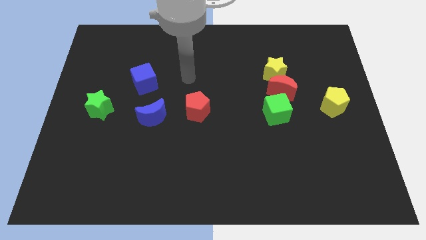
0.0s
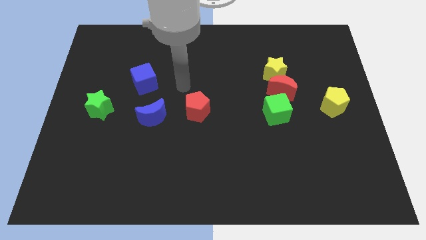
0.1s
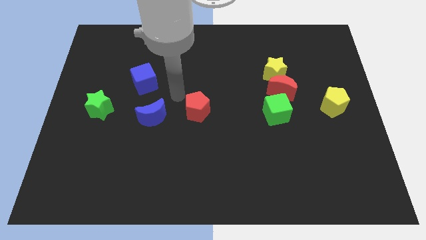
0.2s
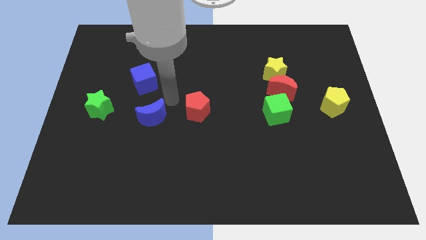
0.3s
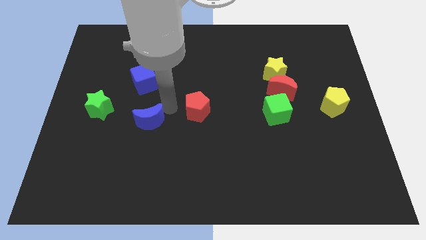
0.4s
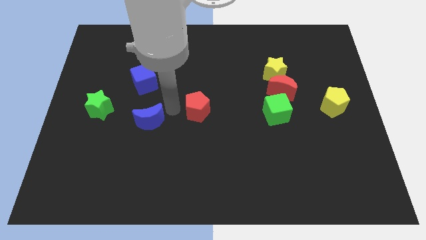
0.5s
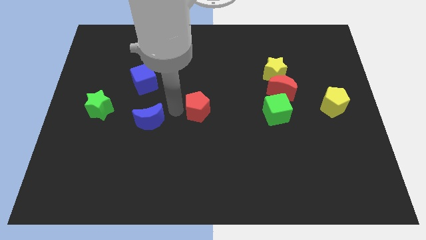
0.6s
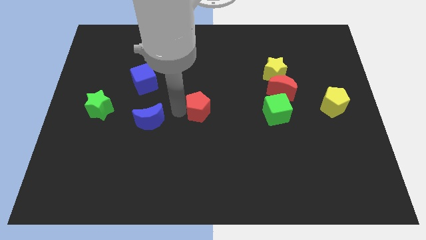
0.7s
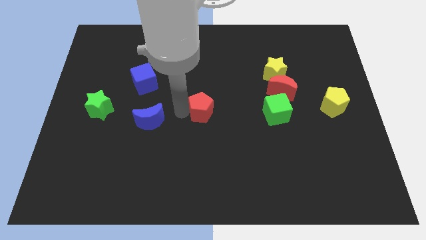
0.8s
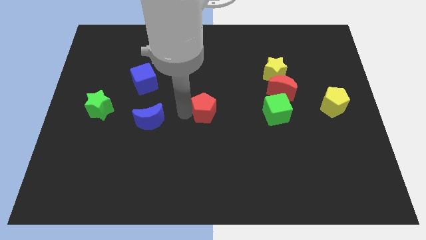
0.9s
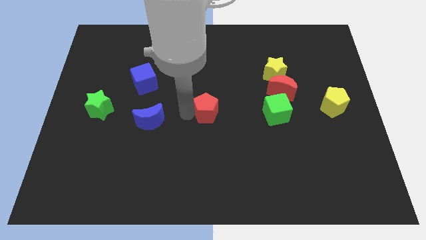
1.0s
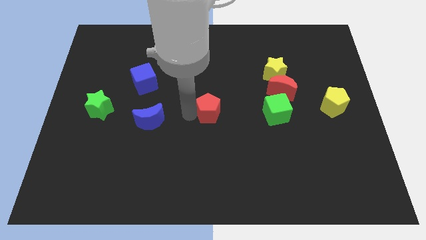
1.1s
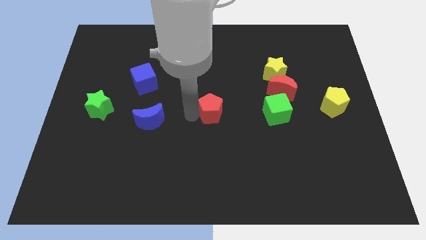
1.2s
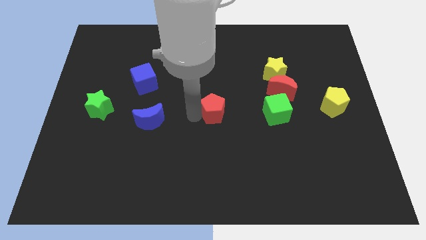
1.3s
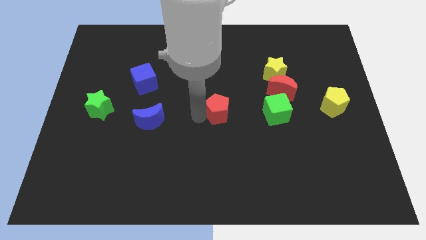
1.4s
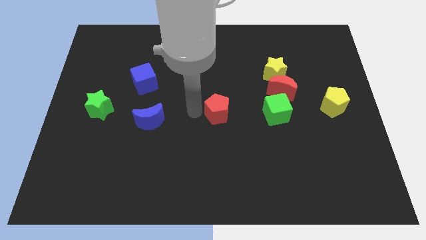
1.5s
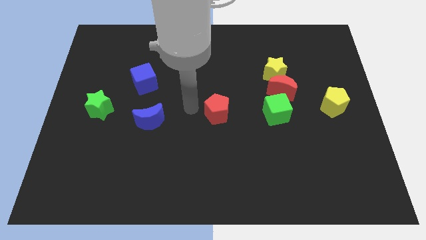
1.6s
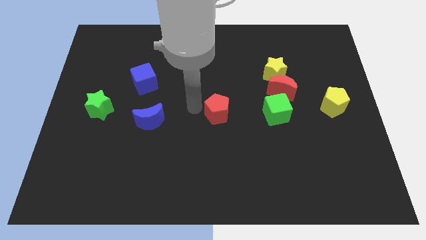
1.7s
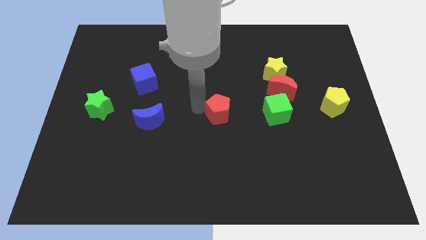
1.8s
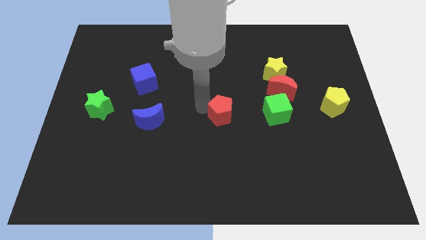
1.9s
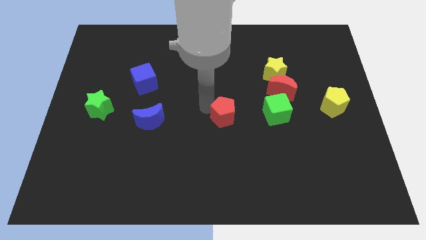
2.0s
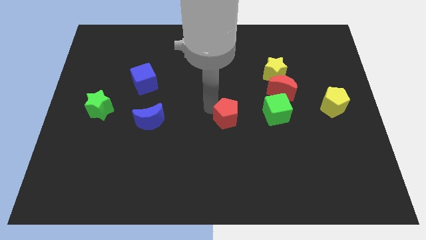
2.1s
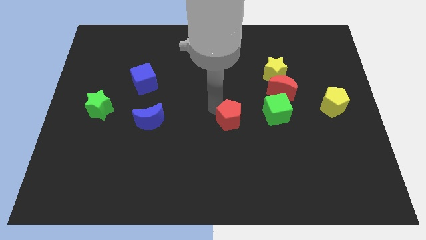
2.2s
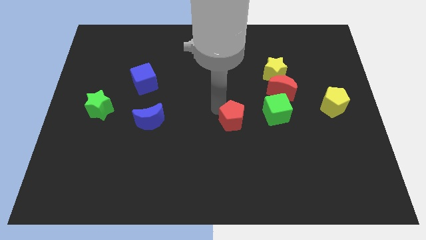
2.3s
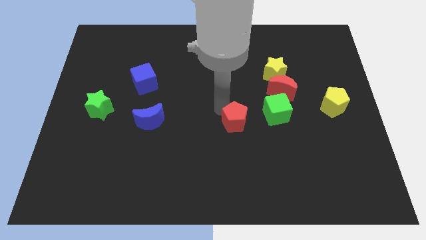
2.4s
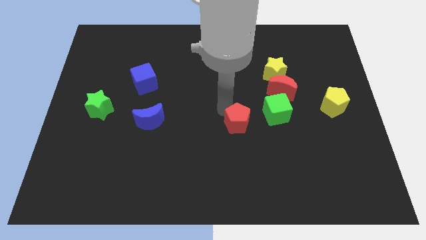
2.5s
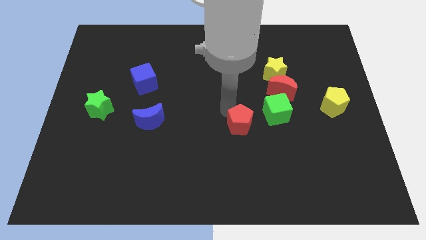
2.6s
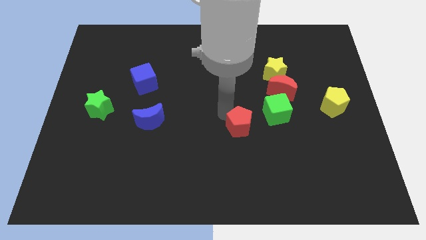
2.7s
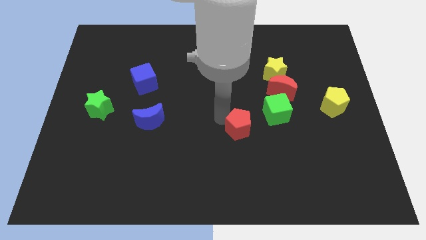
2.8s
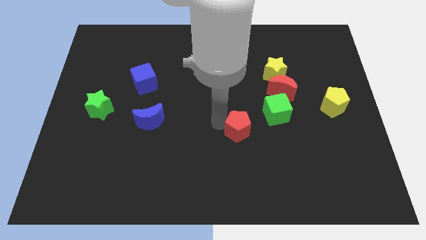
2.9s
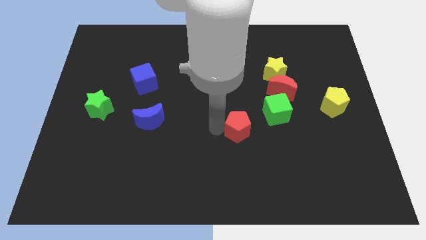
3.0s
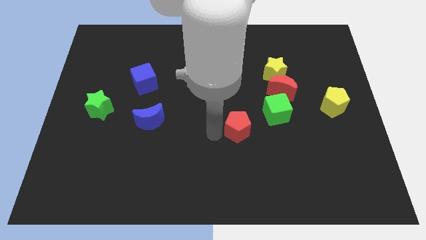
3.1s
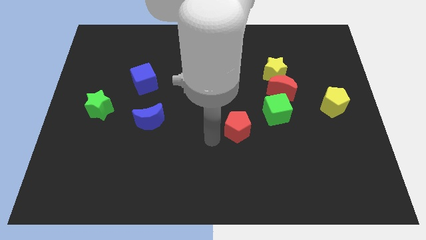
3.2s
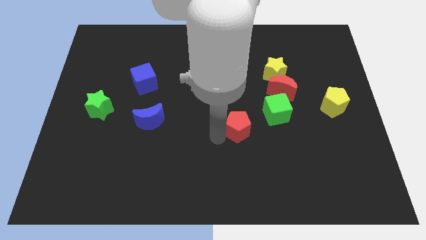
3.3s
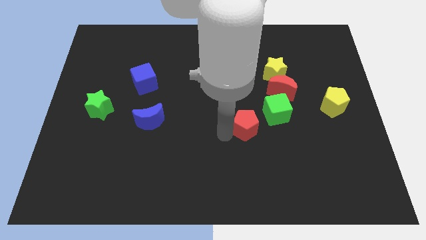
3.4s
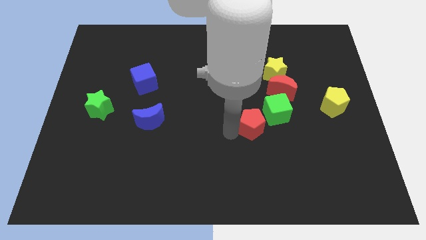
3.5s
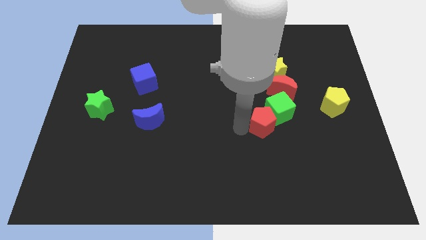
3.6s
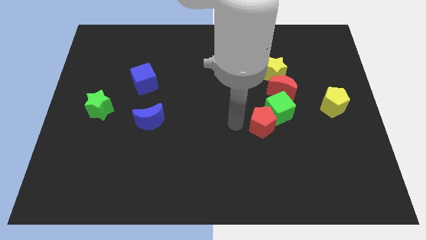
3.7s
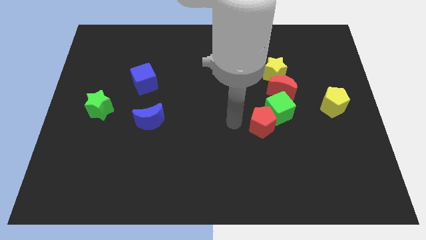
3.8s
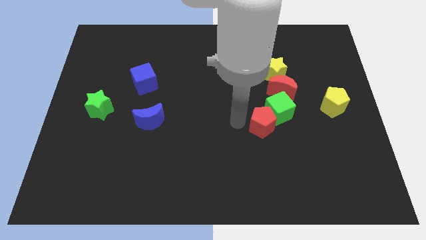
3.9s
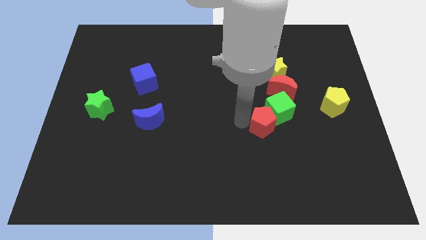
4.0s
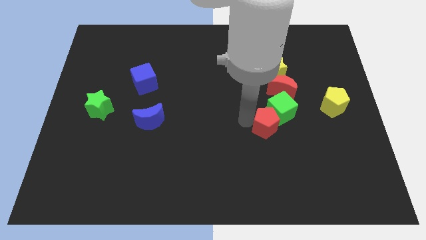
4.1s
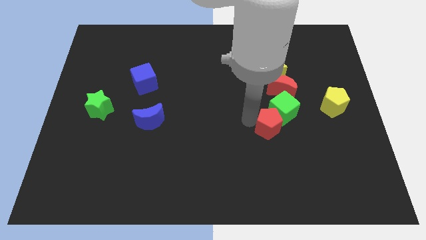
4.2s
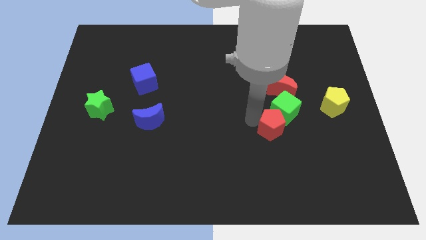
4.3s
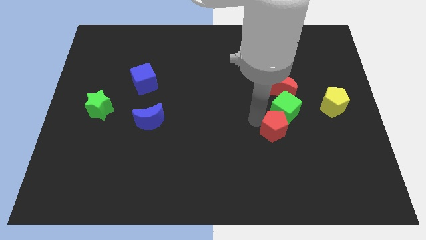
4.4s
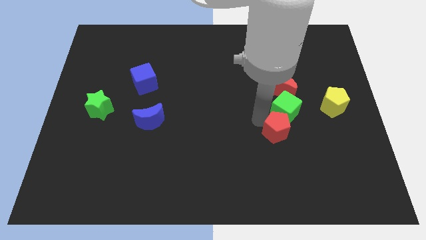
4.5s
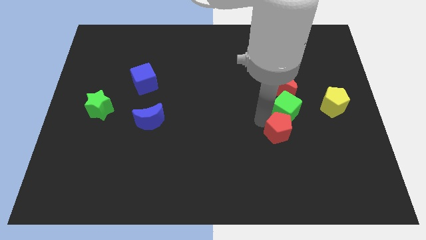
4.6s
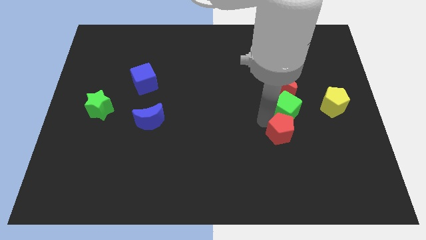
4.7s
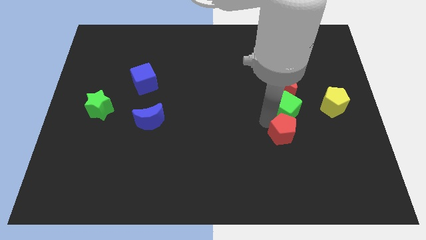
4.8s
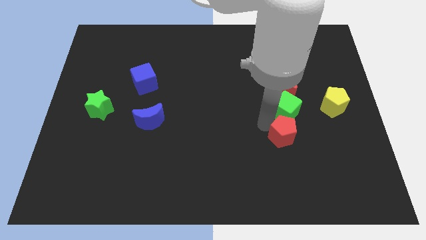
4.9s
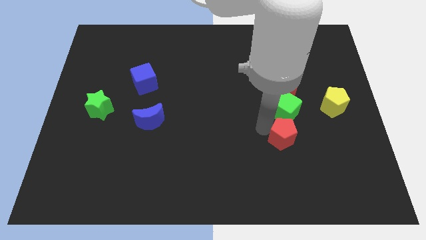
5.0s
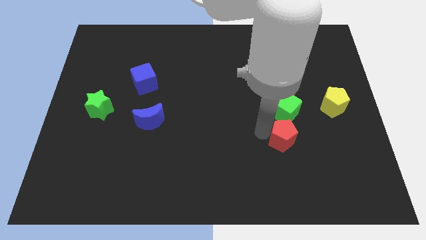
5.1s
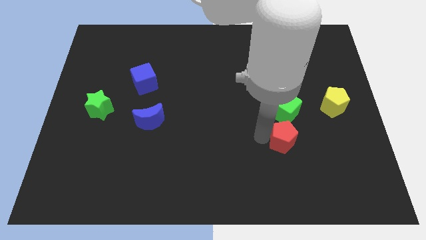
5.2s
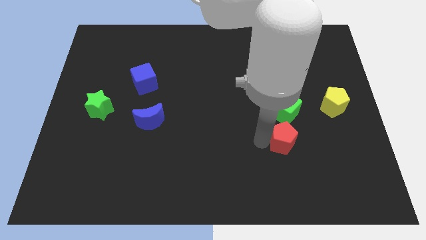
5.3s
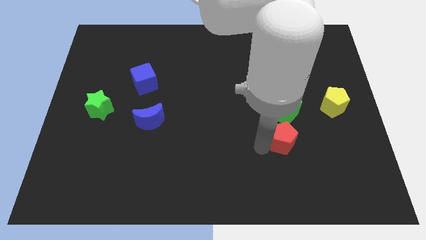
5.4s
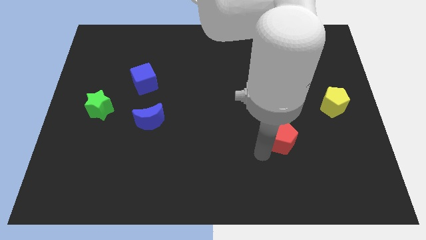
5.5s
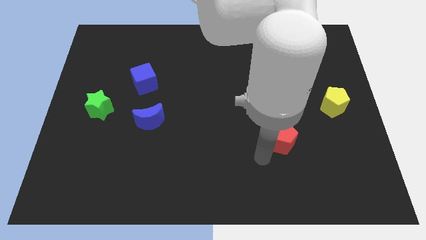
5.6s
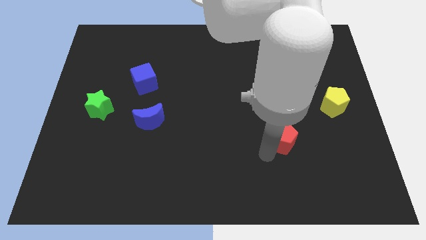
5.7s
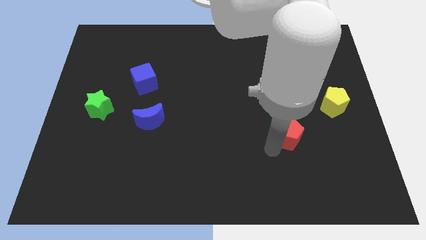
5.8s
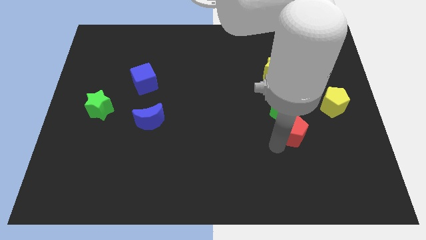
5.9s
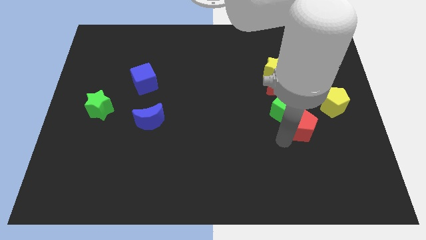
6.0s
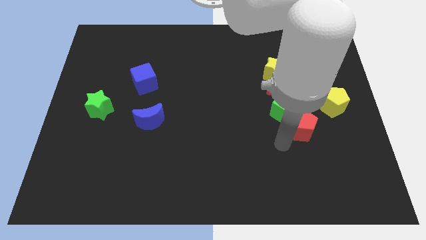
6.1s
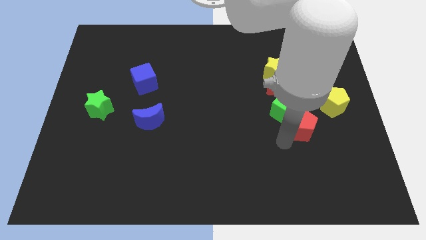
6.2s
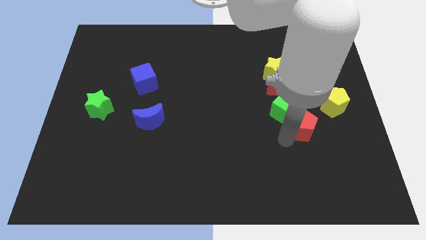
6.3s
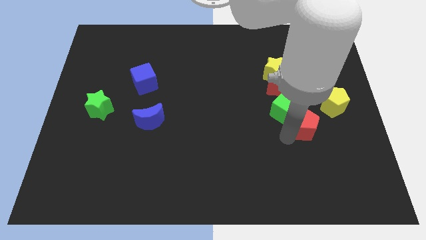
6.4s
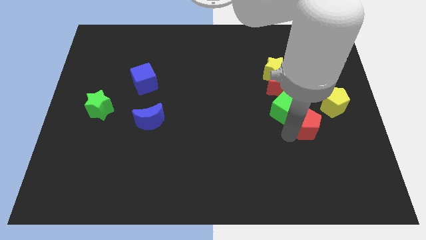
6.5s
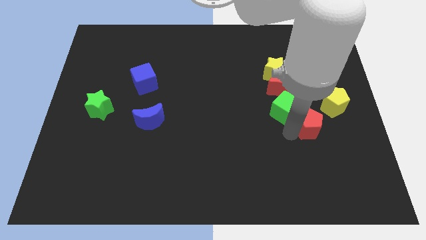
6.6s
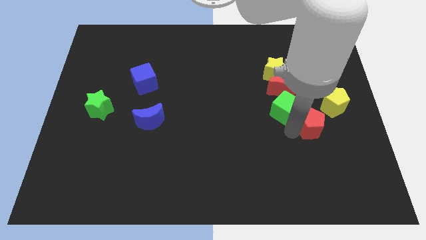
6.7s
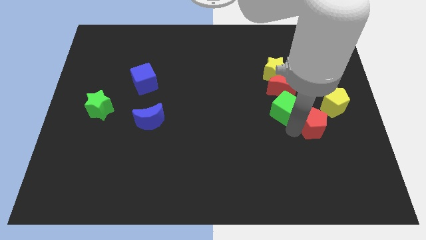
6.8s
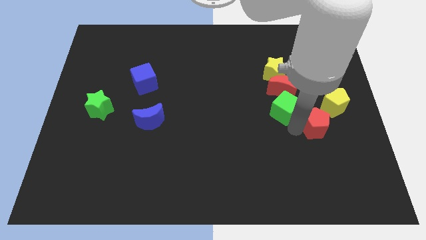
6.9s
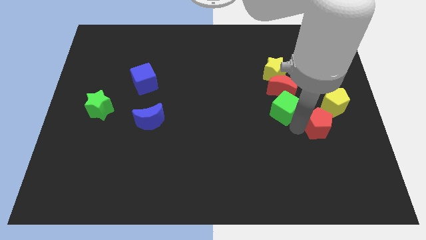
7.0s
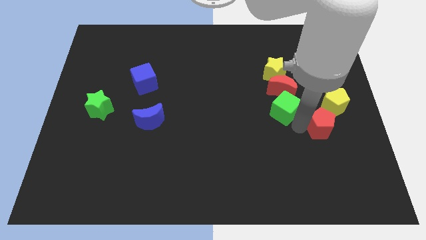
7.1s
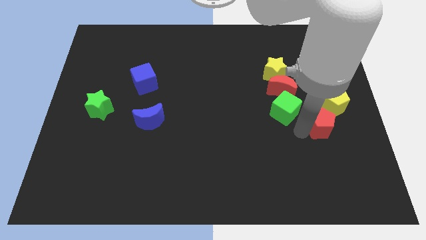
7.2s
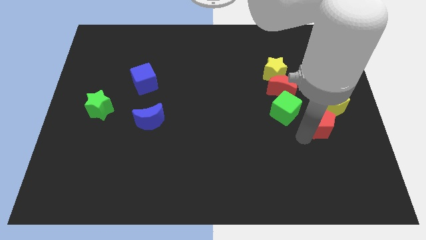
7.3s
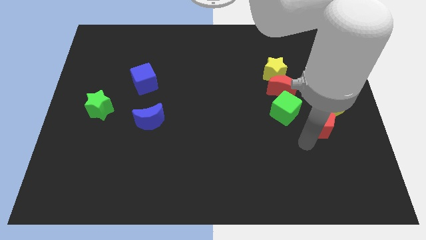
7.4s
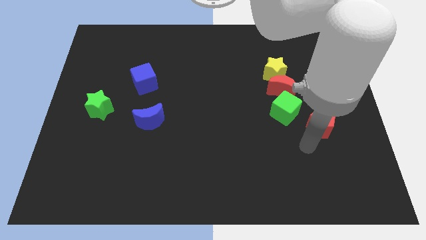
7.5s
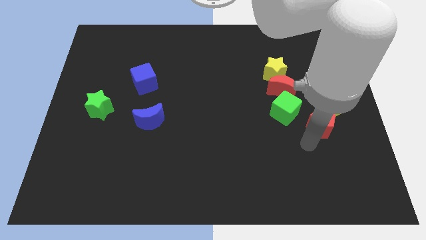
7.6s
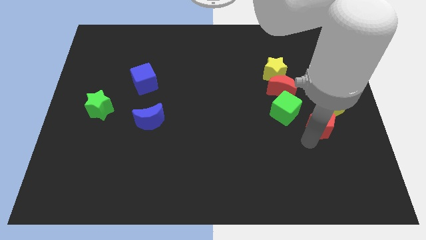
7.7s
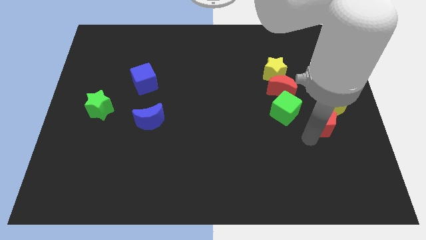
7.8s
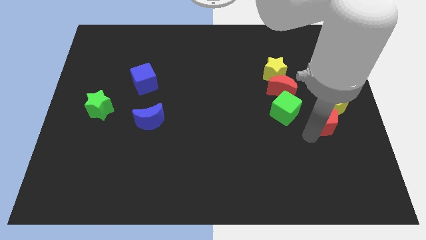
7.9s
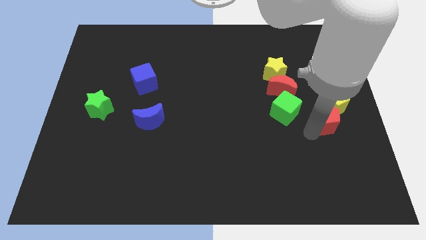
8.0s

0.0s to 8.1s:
slide the red pentagon close to the yellow pentagon
